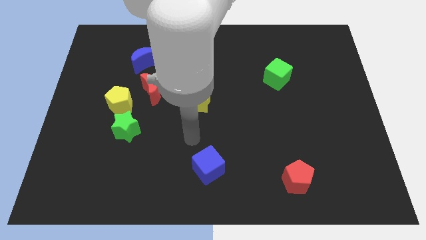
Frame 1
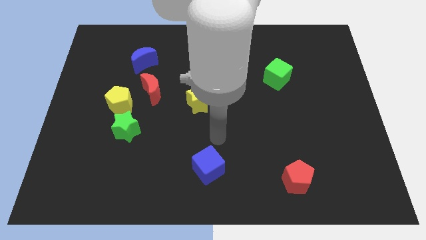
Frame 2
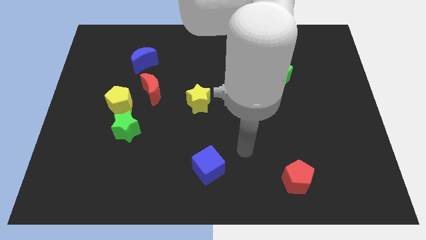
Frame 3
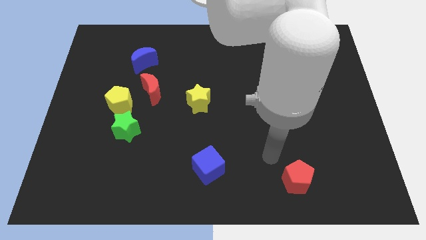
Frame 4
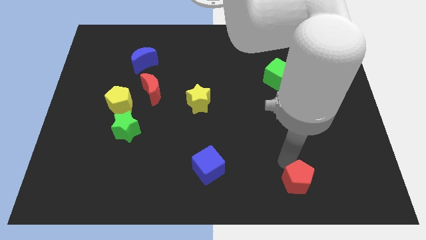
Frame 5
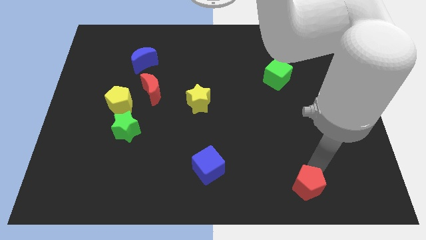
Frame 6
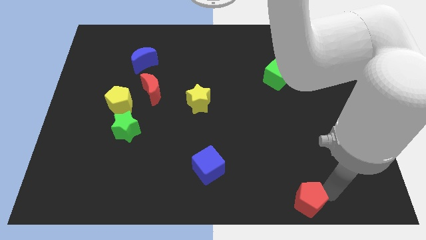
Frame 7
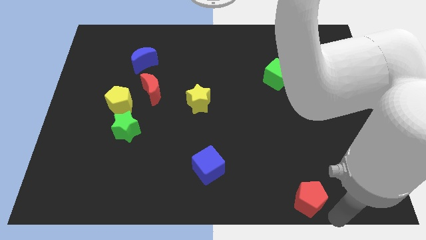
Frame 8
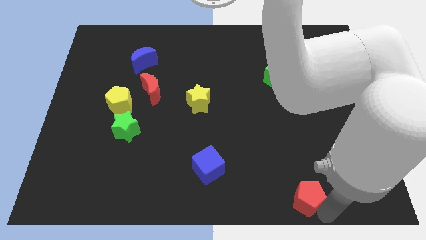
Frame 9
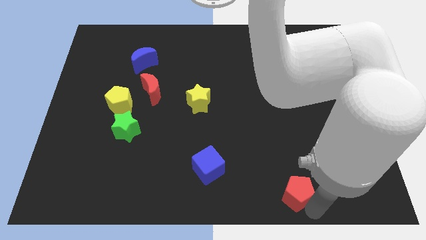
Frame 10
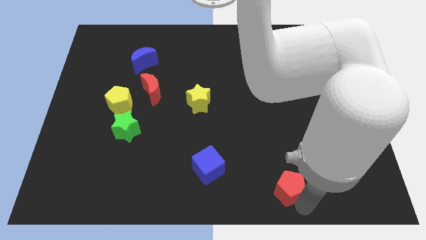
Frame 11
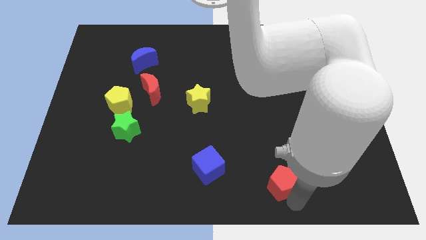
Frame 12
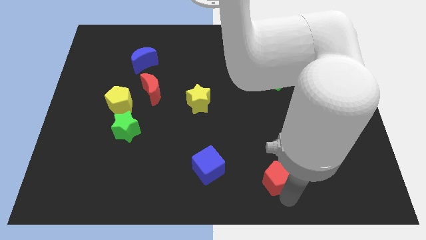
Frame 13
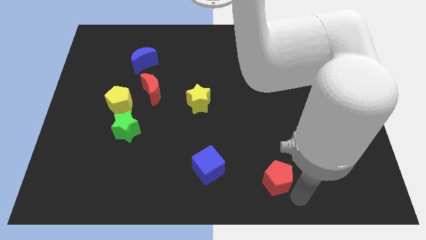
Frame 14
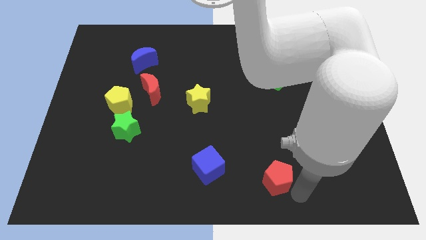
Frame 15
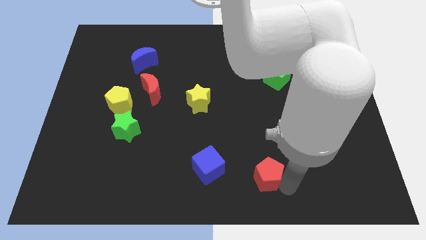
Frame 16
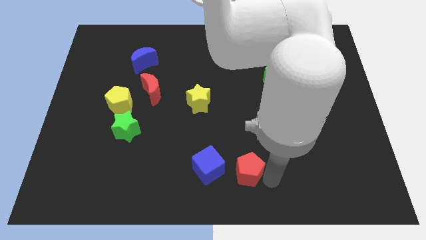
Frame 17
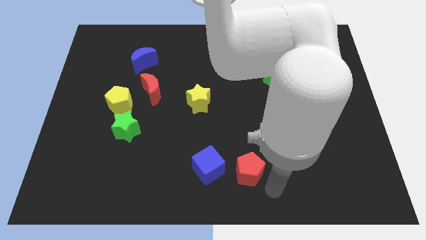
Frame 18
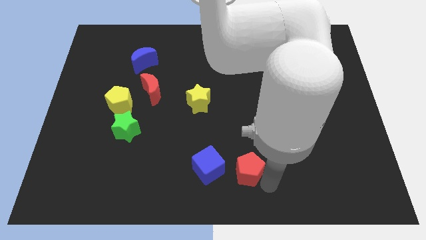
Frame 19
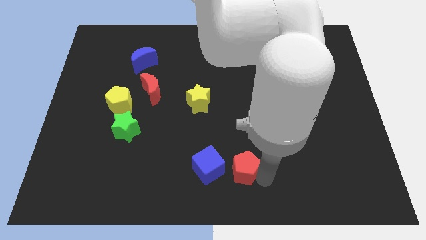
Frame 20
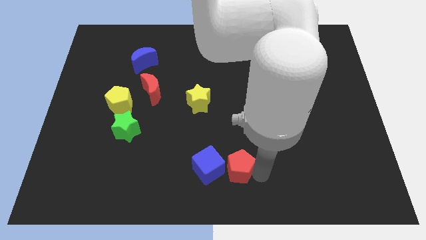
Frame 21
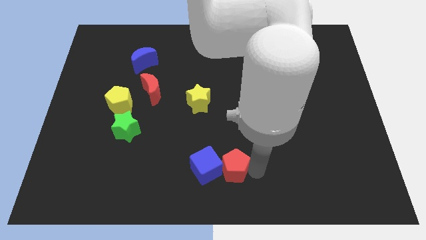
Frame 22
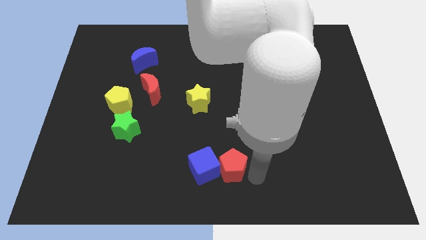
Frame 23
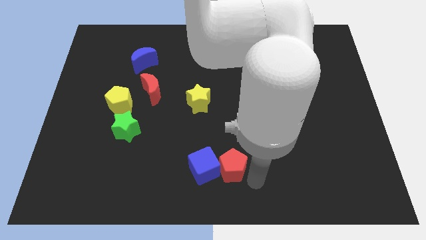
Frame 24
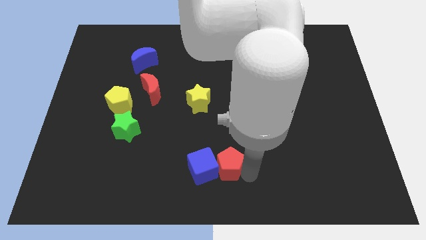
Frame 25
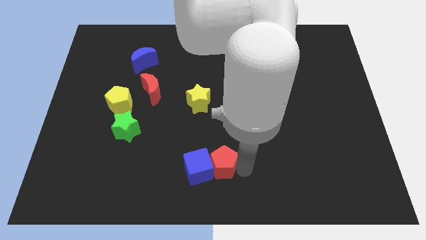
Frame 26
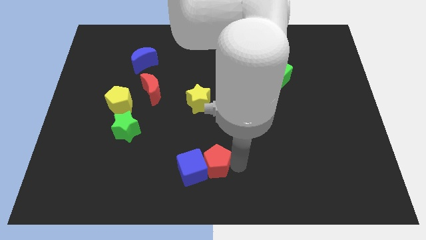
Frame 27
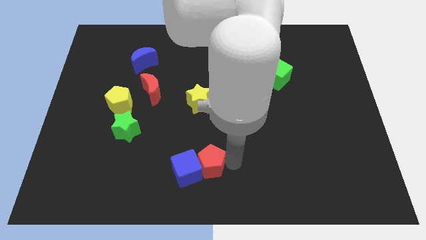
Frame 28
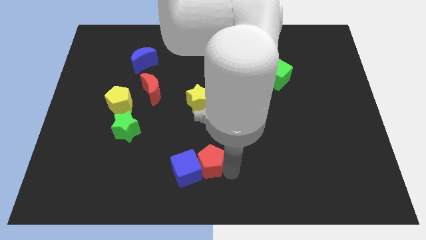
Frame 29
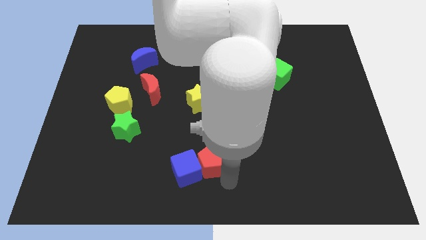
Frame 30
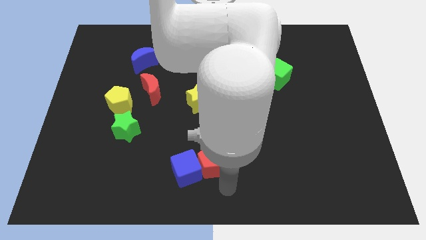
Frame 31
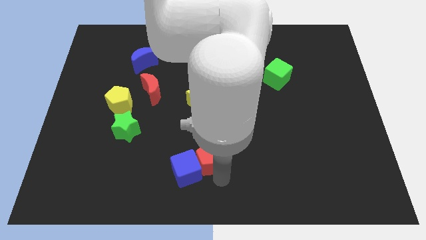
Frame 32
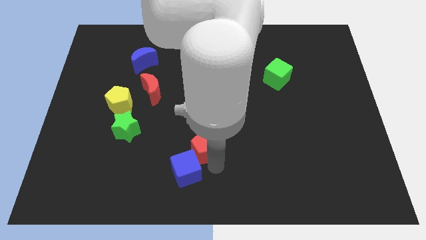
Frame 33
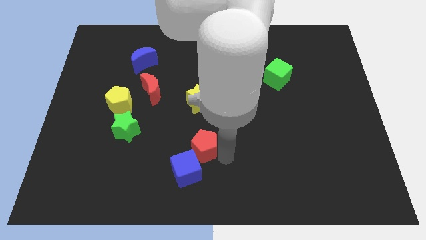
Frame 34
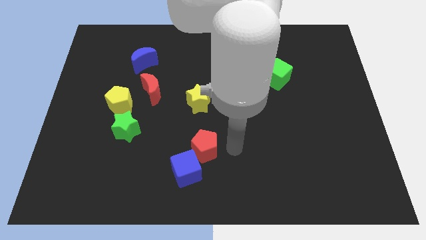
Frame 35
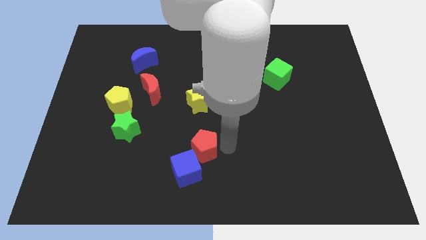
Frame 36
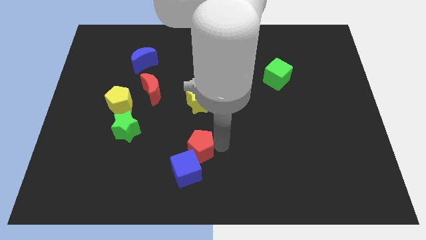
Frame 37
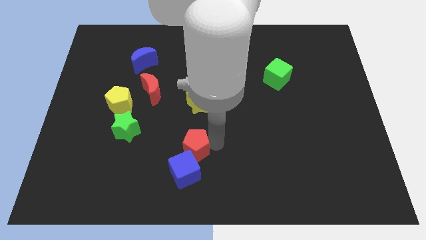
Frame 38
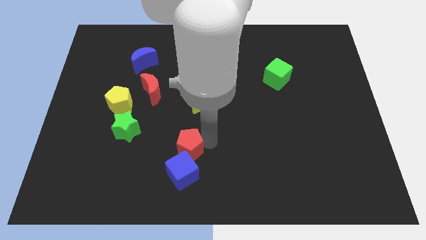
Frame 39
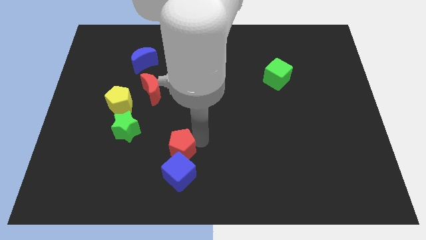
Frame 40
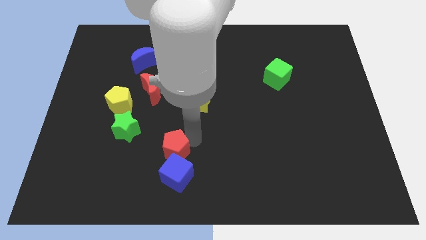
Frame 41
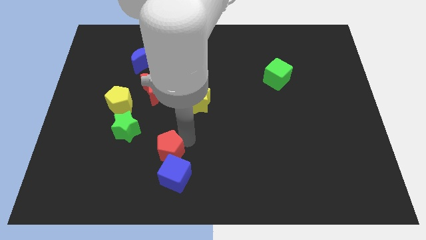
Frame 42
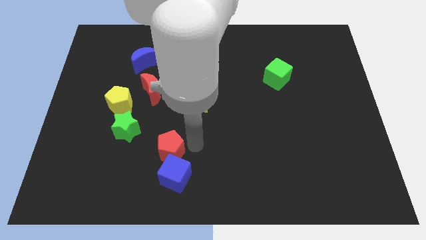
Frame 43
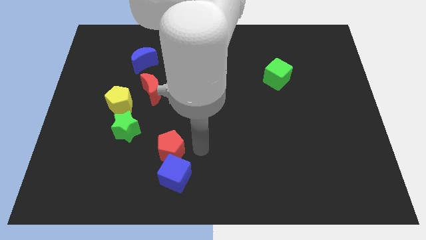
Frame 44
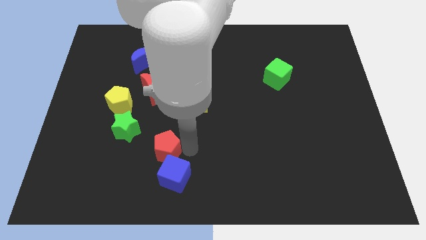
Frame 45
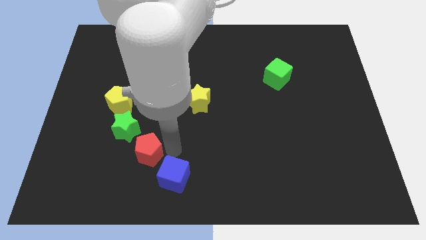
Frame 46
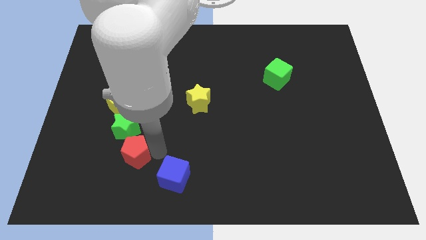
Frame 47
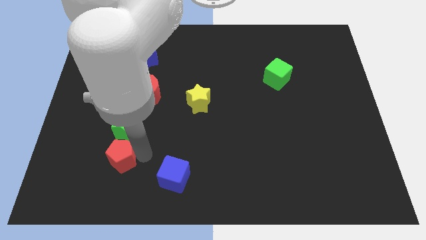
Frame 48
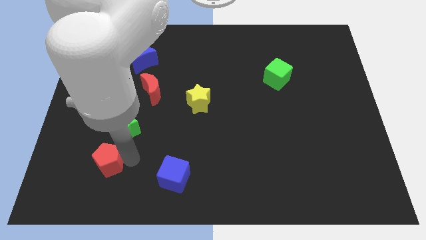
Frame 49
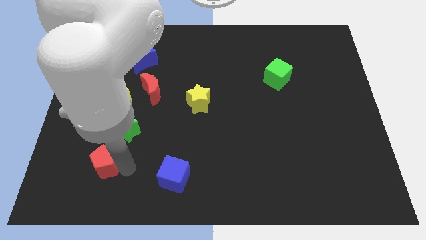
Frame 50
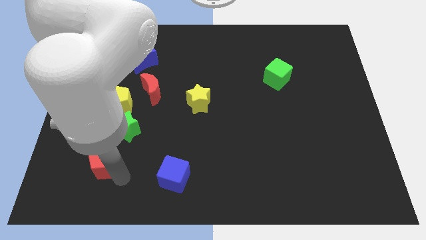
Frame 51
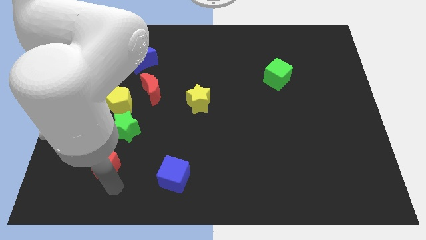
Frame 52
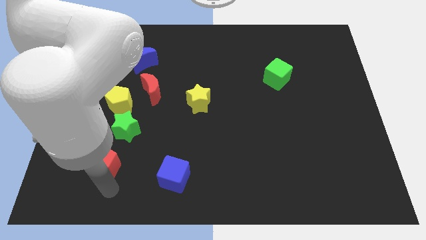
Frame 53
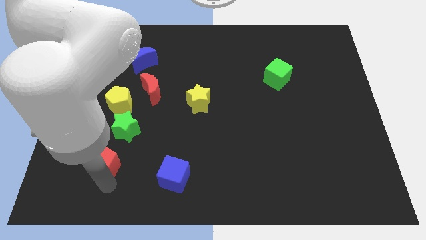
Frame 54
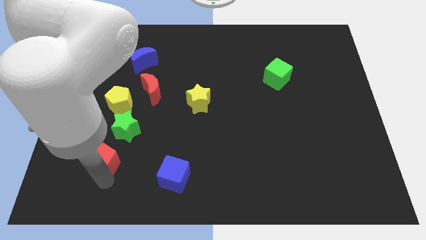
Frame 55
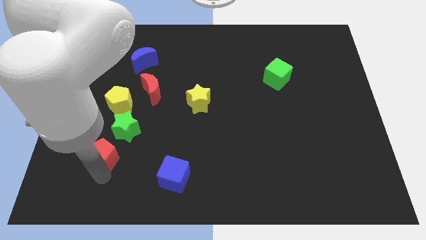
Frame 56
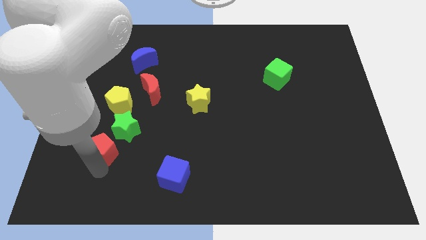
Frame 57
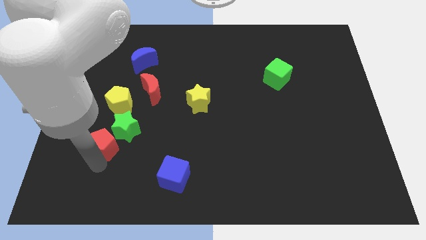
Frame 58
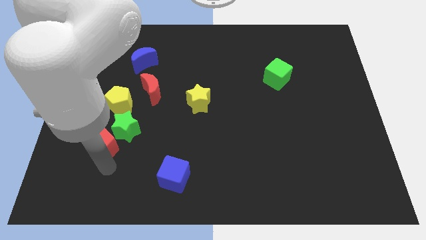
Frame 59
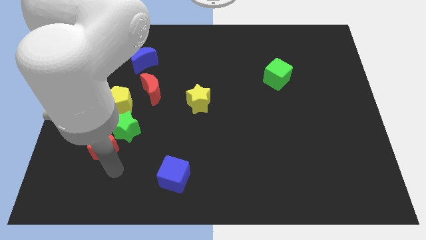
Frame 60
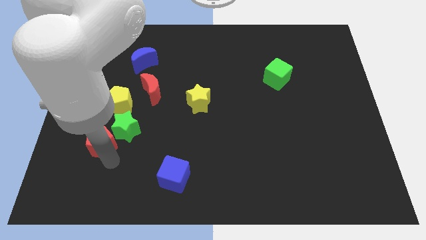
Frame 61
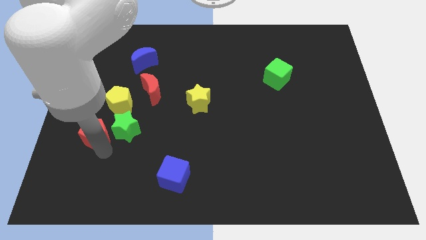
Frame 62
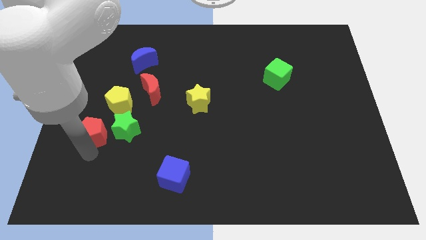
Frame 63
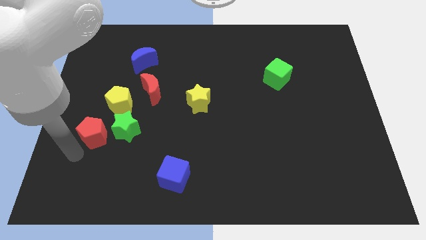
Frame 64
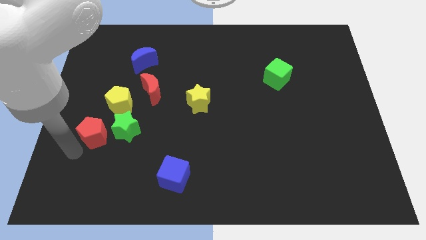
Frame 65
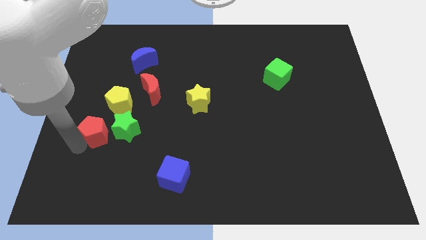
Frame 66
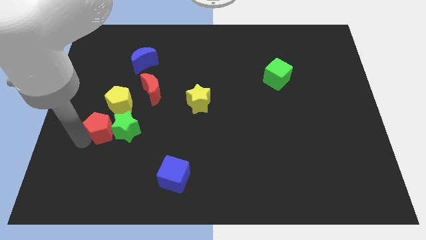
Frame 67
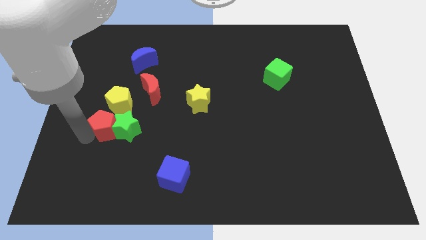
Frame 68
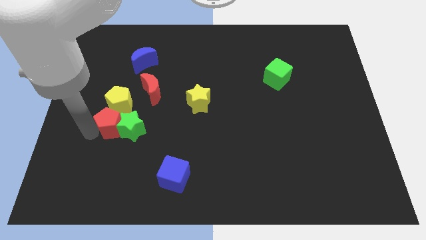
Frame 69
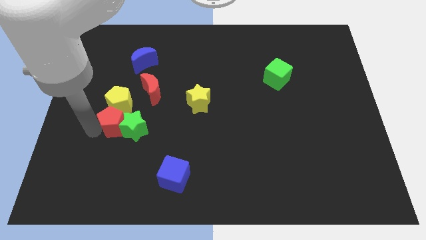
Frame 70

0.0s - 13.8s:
move the red pentagon diagonally down and to the left of the red moon

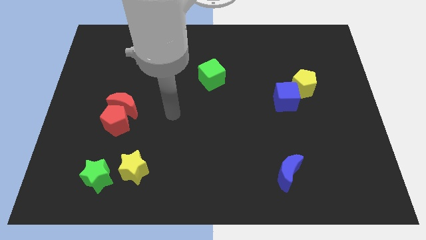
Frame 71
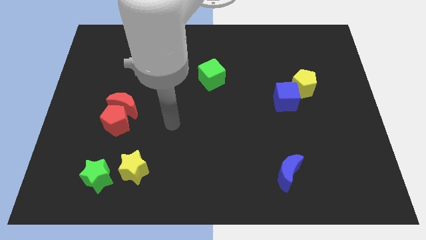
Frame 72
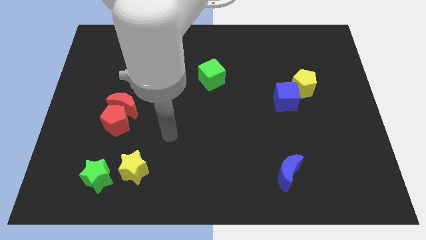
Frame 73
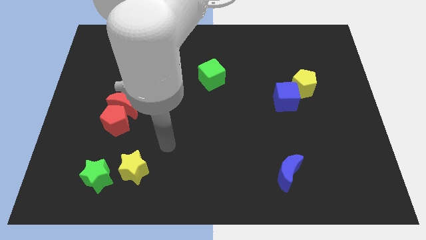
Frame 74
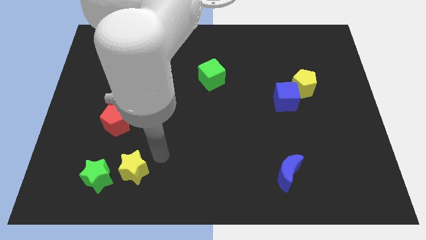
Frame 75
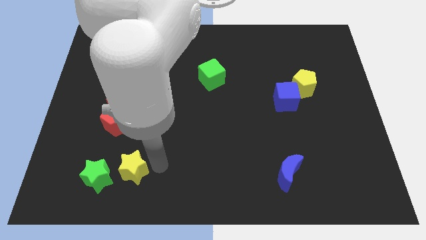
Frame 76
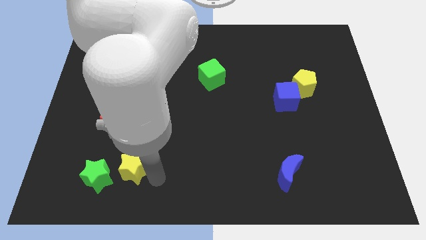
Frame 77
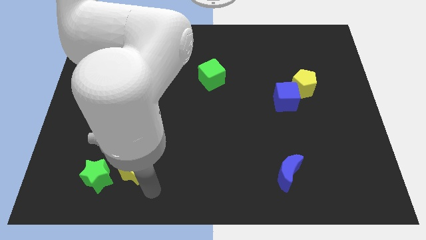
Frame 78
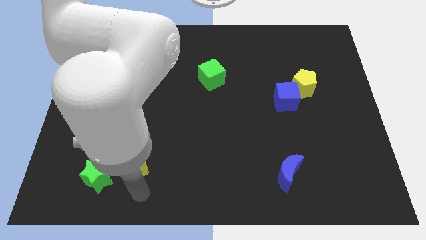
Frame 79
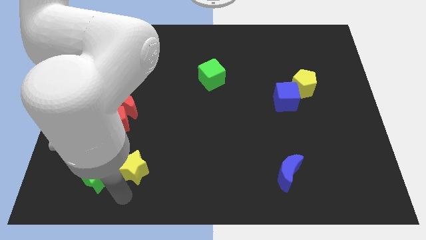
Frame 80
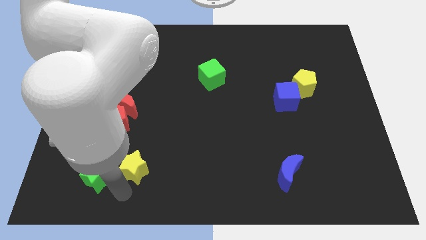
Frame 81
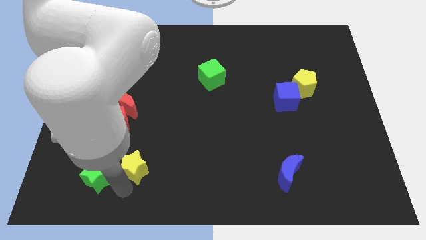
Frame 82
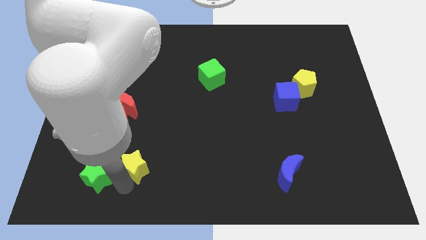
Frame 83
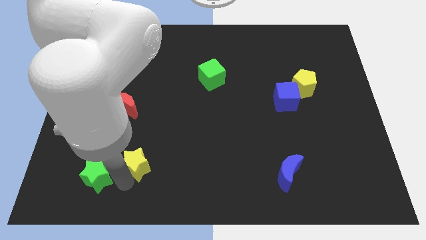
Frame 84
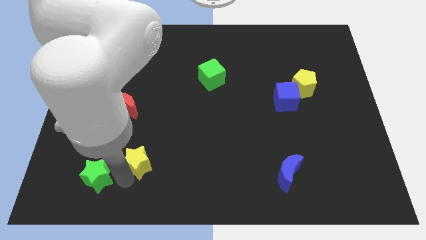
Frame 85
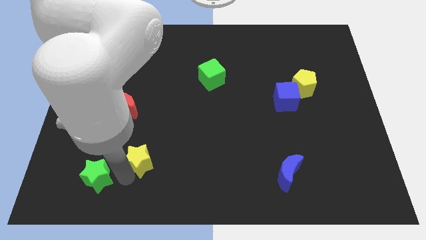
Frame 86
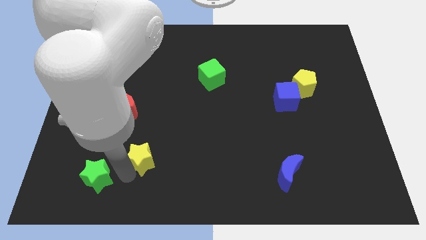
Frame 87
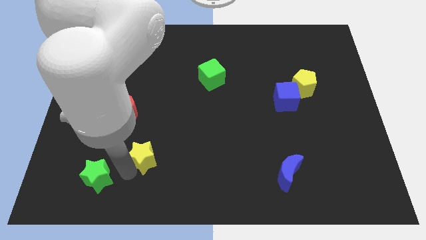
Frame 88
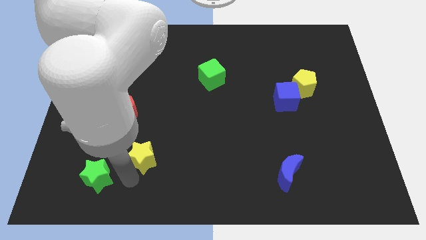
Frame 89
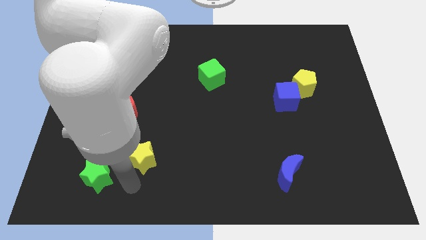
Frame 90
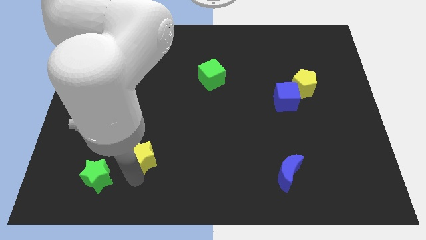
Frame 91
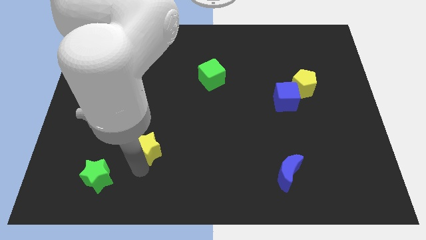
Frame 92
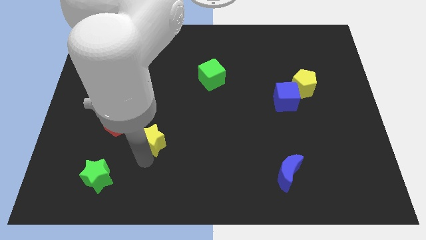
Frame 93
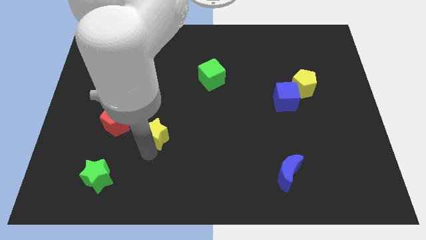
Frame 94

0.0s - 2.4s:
slide the yellow star just right of the red pentagon
